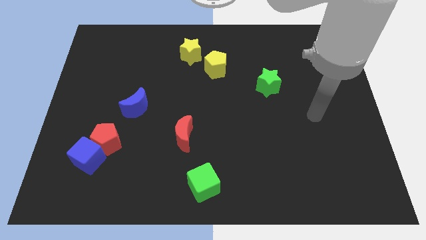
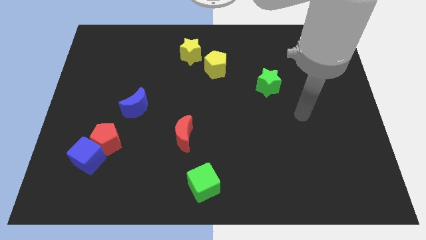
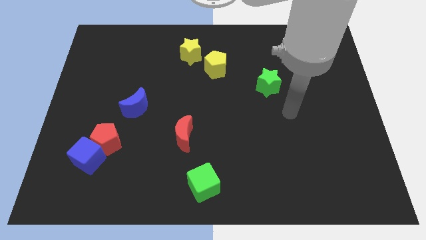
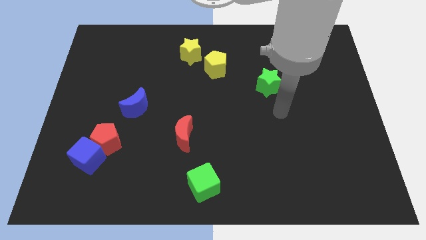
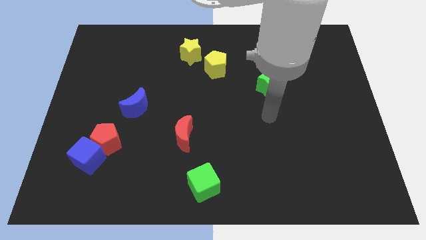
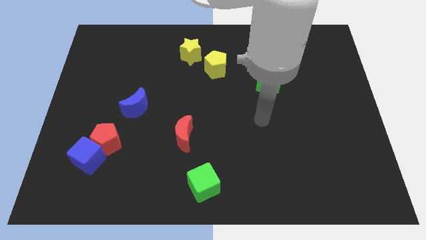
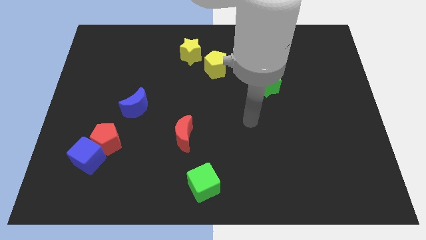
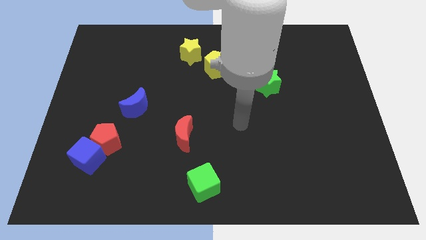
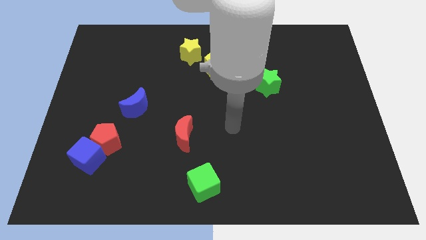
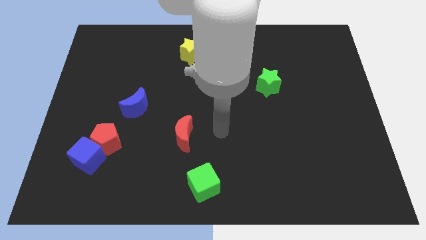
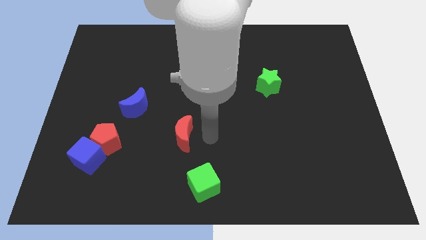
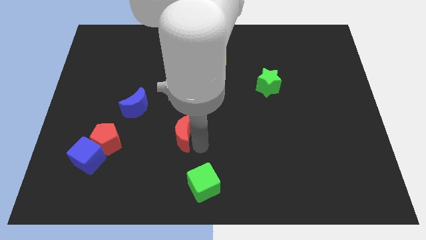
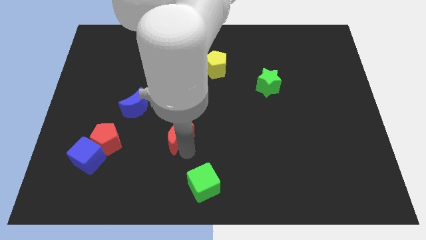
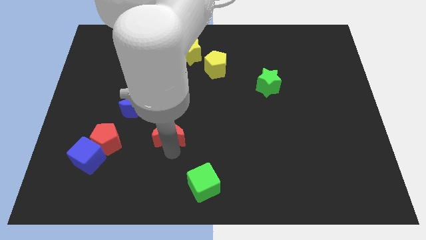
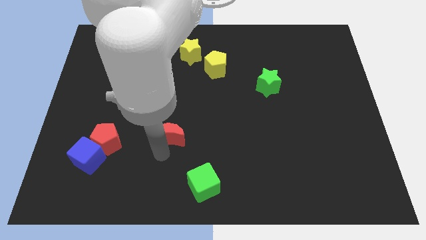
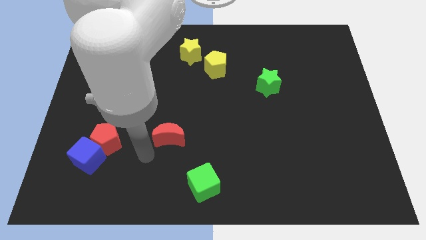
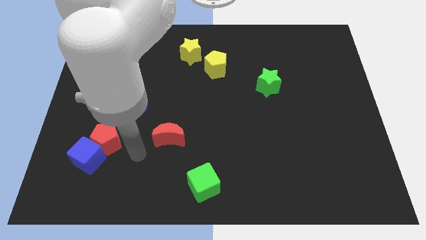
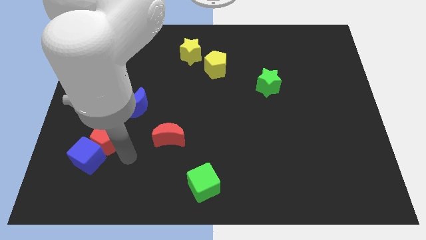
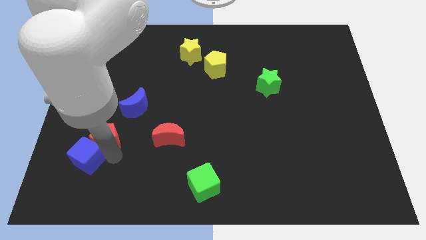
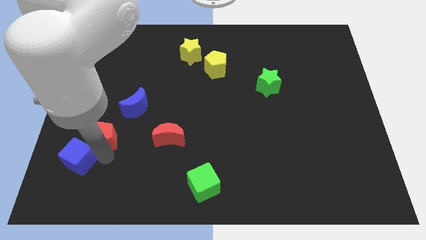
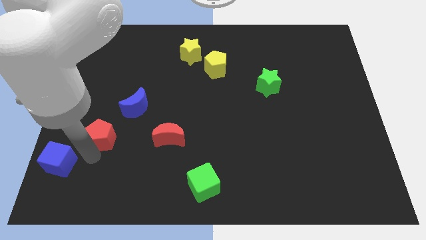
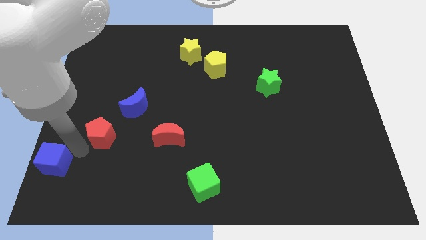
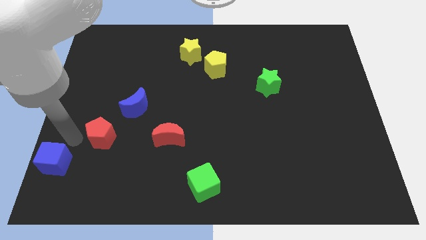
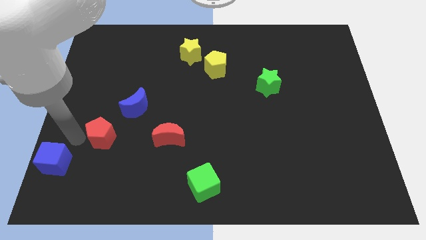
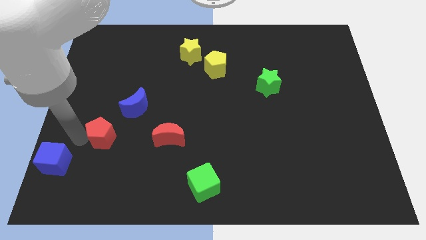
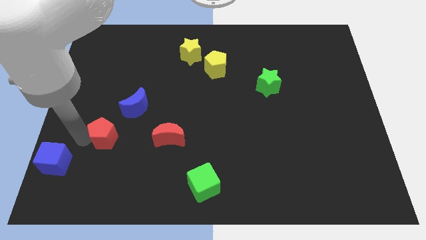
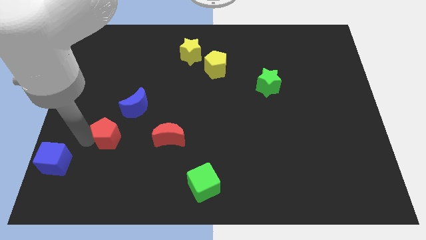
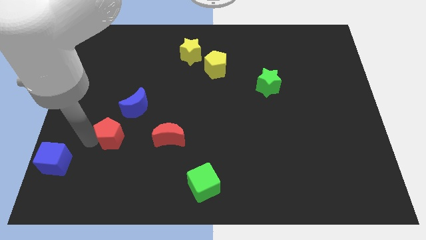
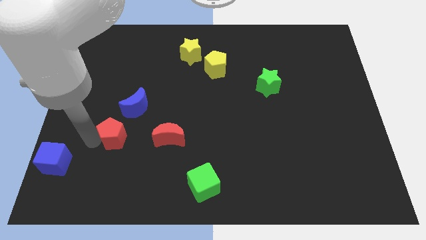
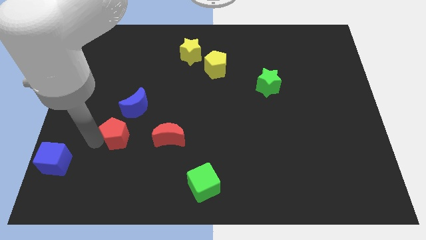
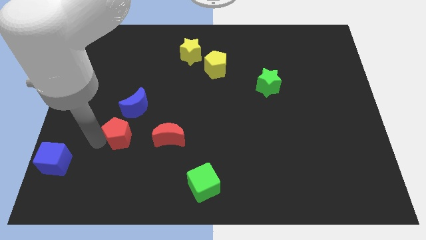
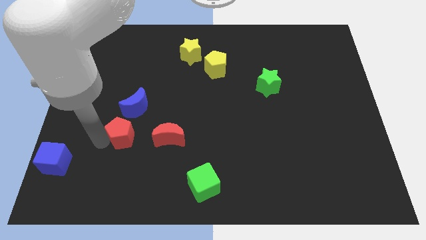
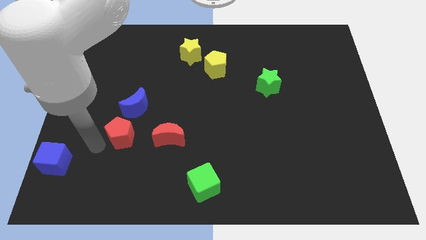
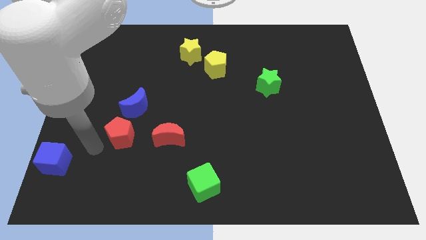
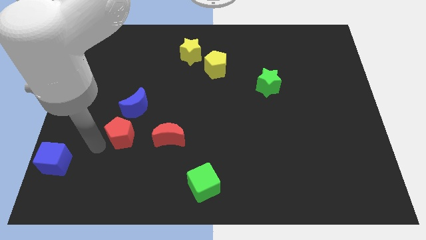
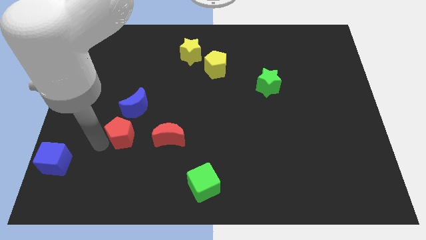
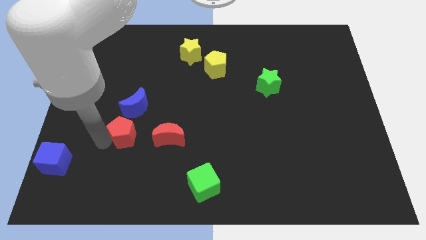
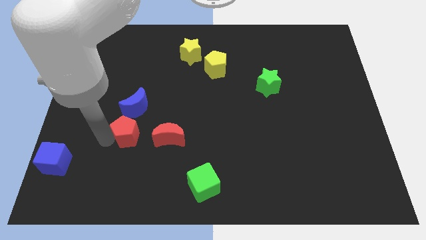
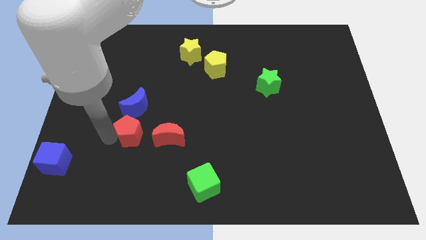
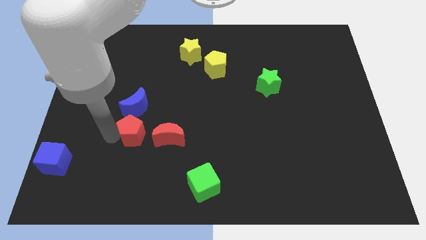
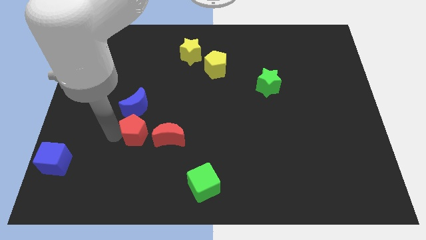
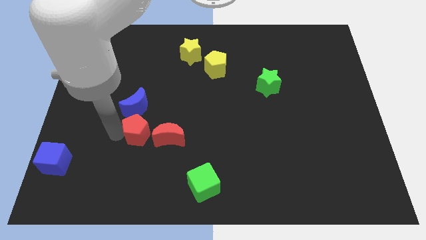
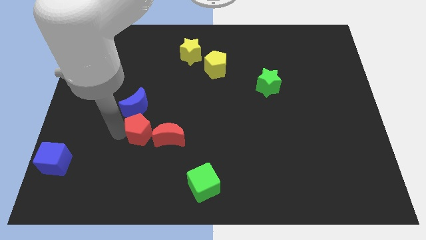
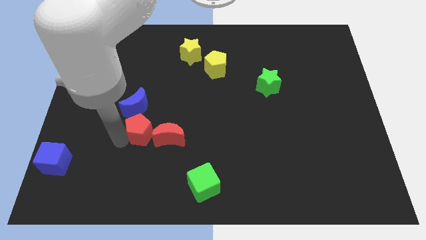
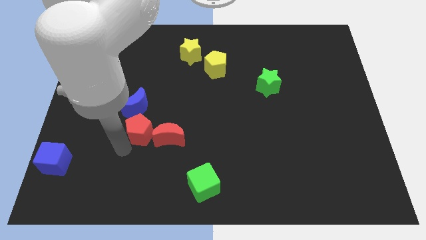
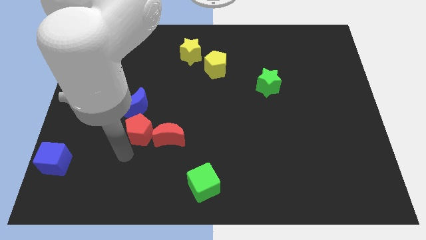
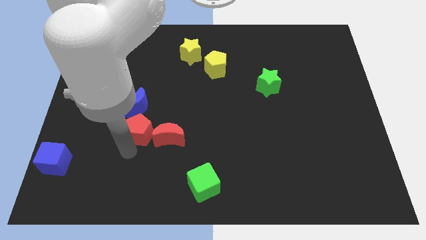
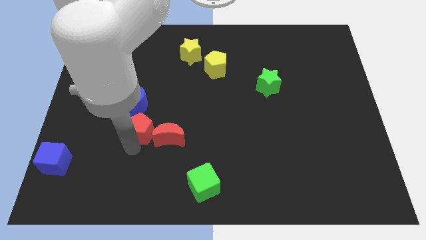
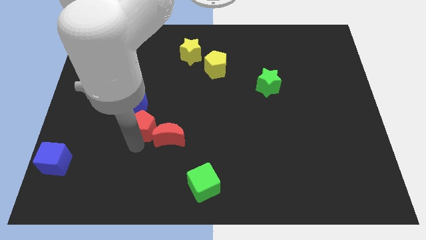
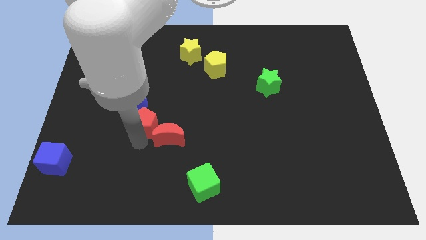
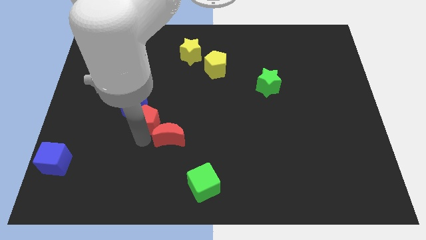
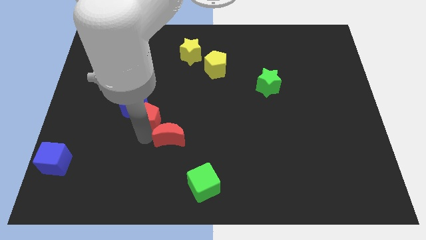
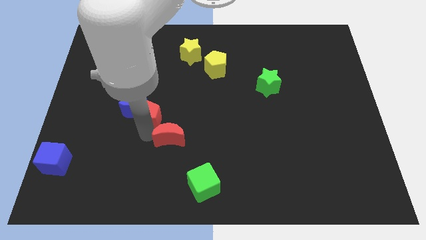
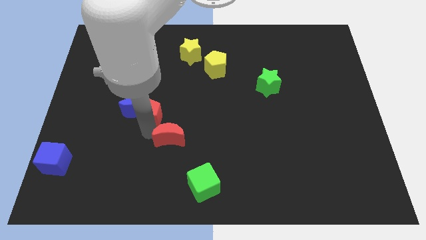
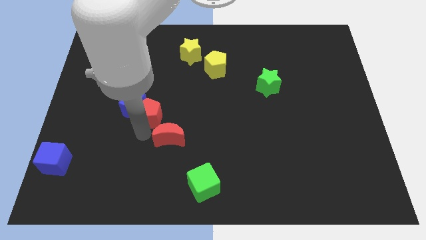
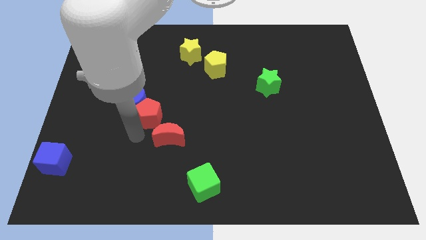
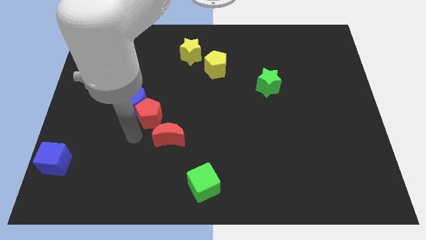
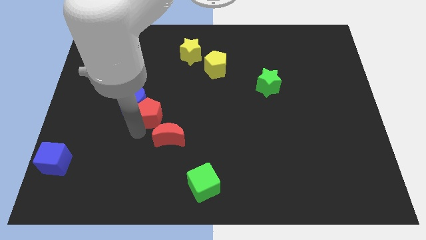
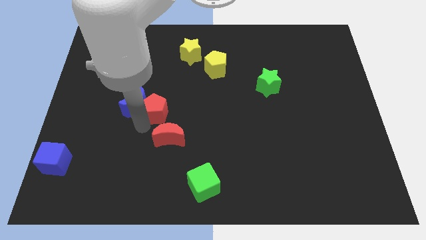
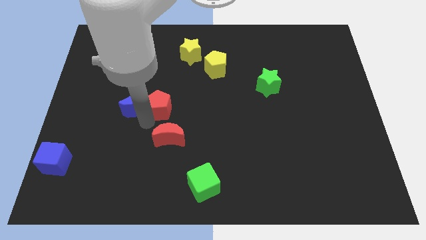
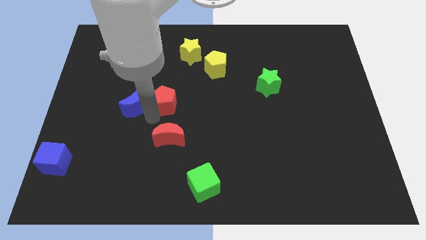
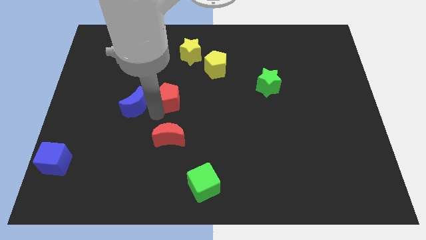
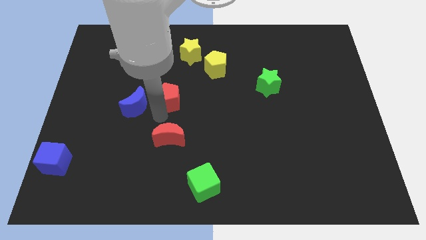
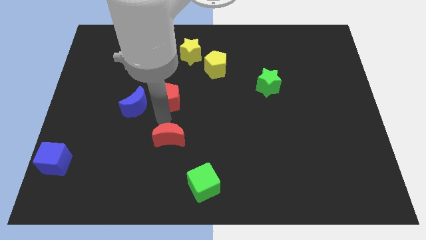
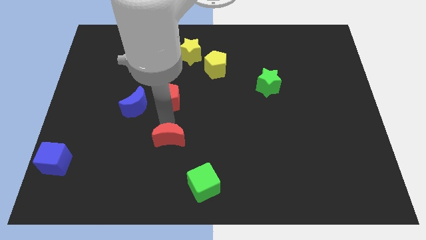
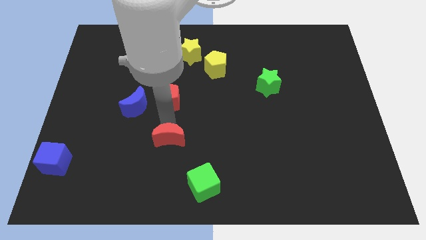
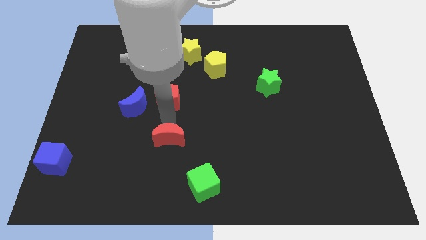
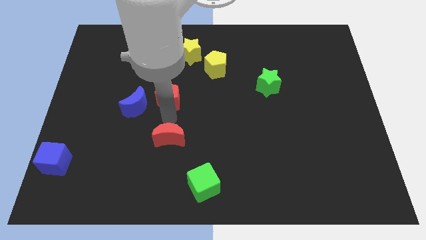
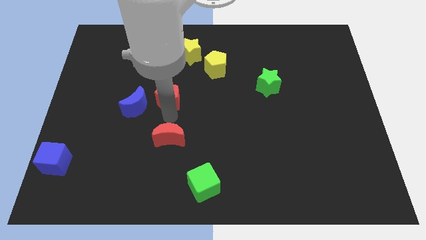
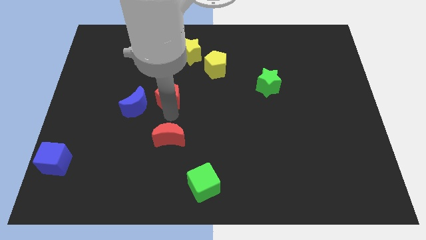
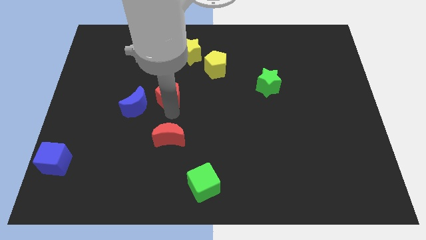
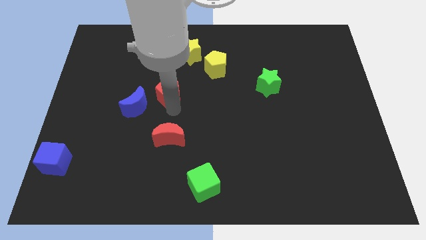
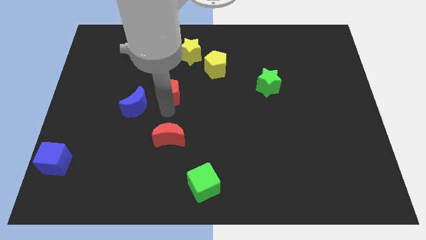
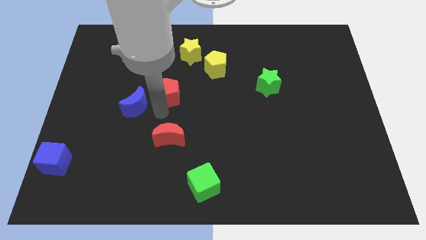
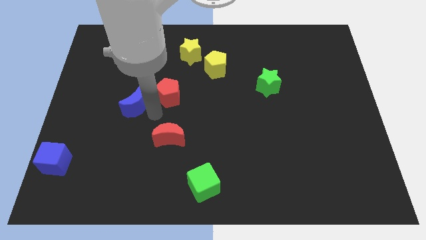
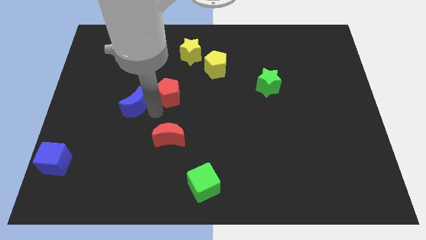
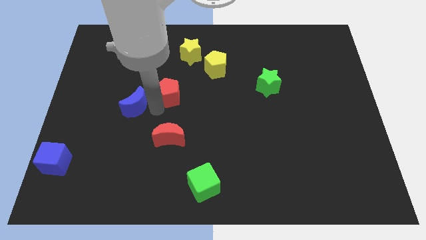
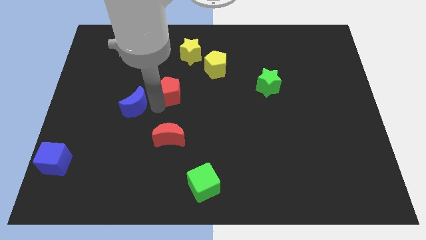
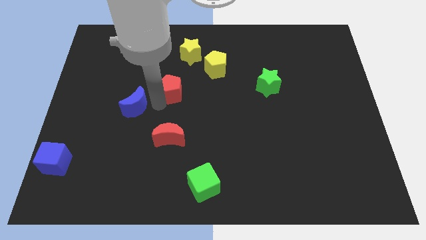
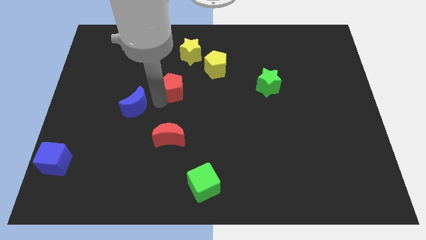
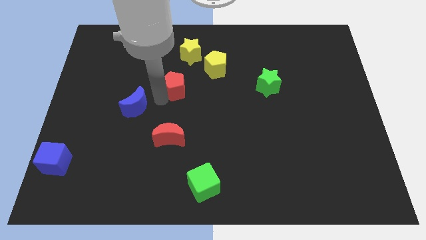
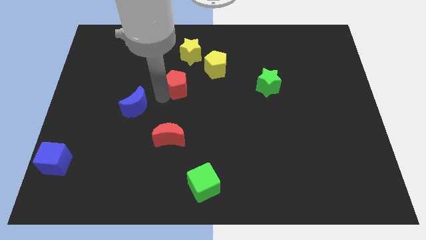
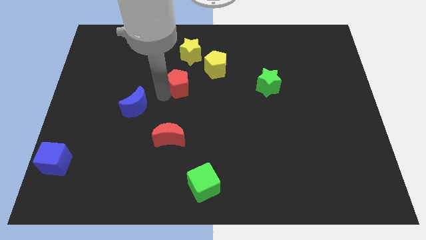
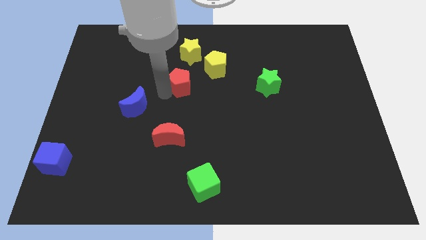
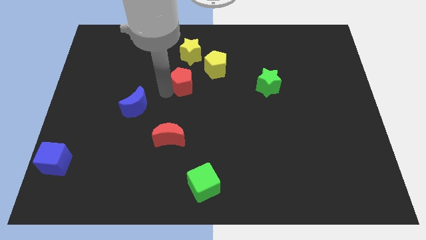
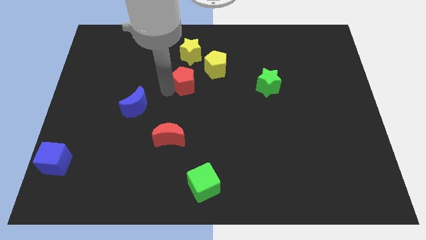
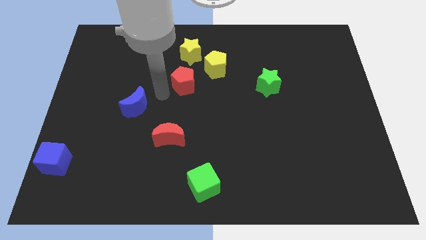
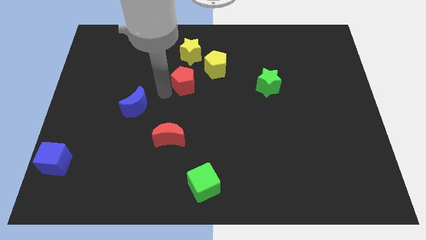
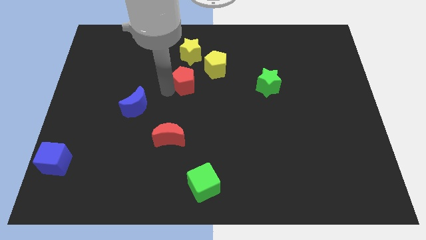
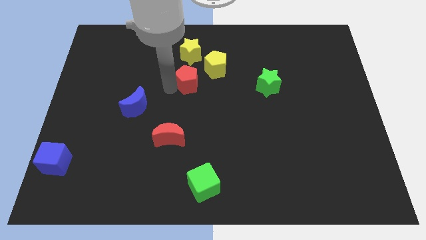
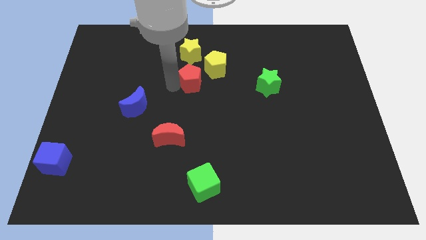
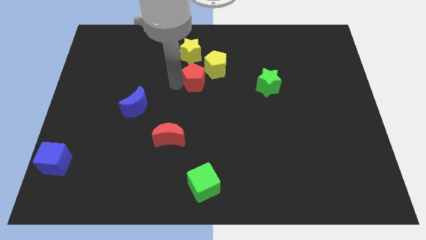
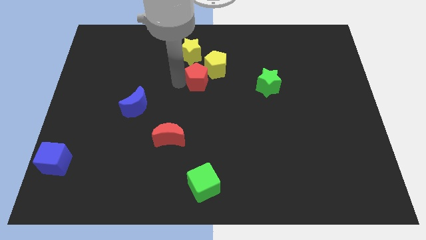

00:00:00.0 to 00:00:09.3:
put the red pentagon close to the yellow pentagon
